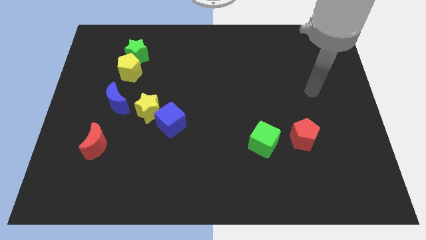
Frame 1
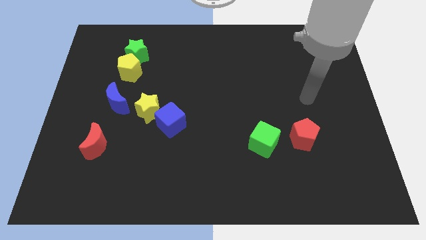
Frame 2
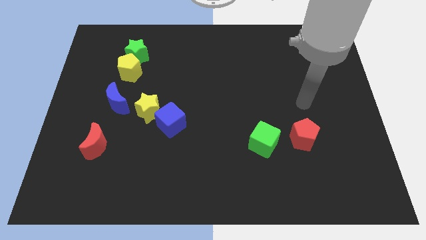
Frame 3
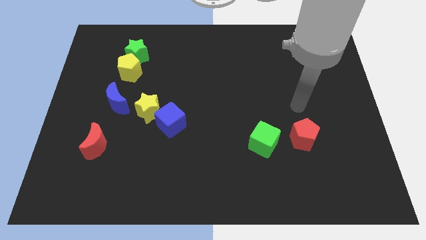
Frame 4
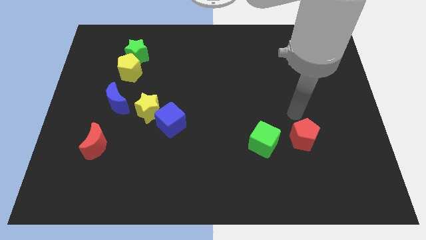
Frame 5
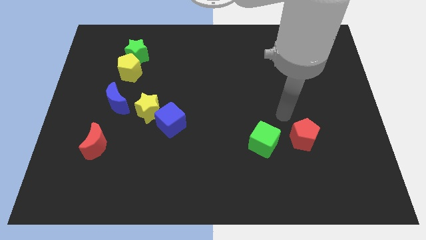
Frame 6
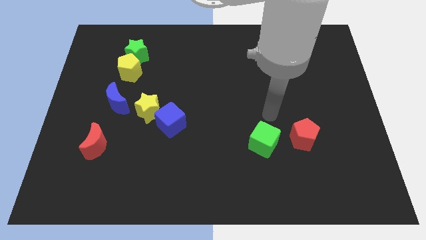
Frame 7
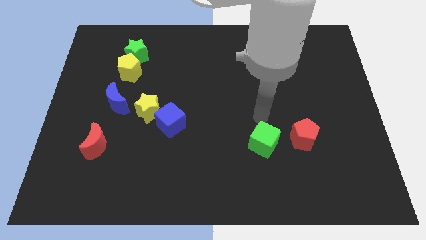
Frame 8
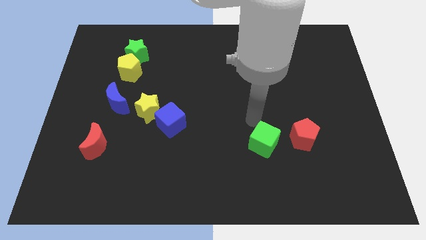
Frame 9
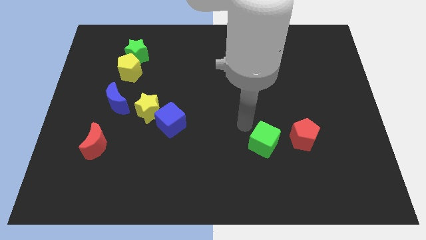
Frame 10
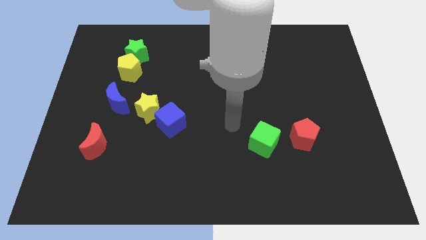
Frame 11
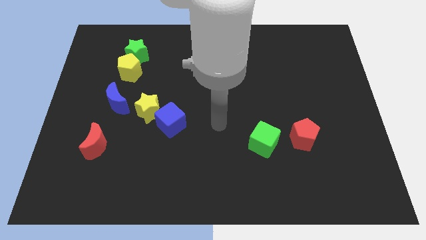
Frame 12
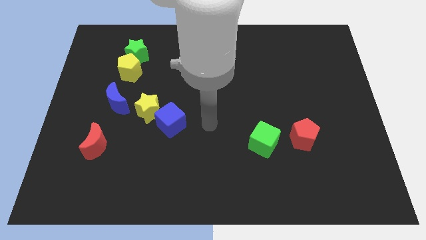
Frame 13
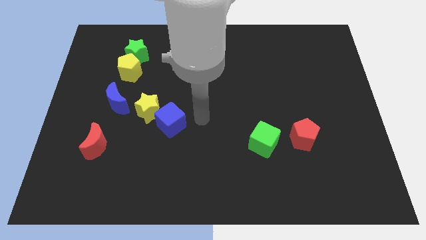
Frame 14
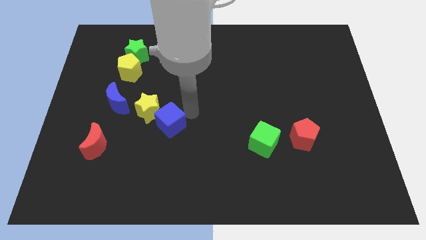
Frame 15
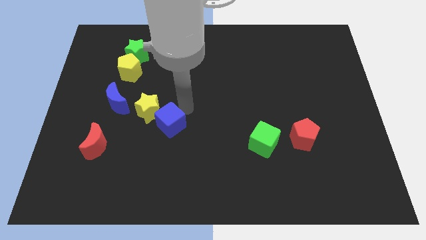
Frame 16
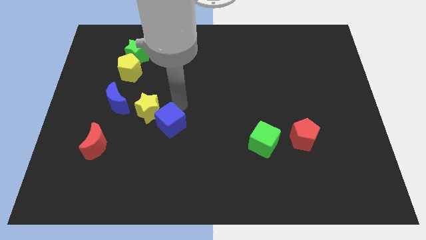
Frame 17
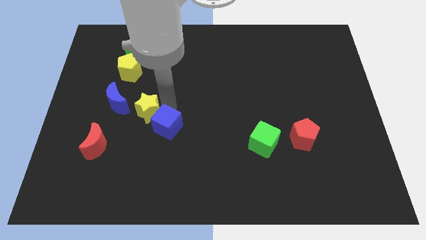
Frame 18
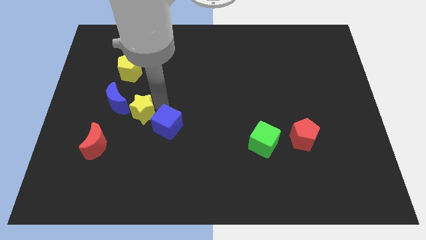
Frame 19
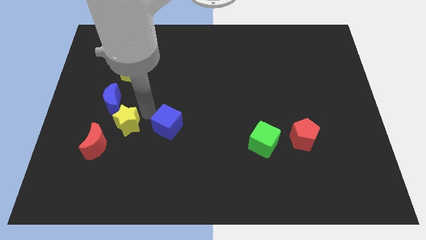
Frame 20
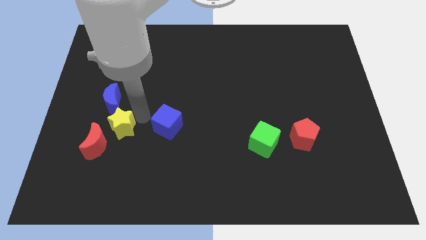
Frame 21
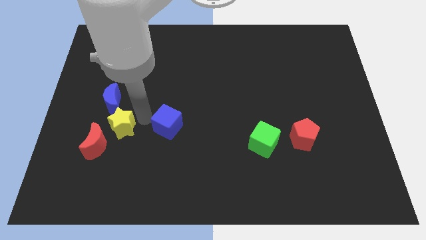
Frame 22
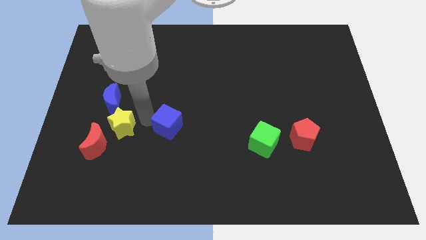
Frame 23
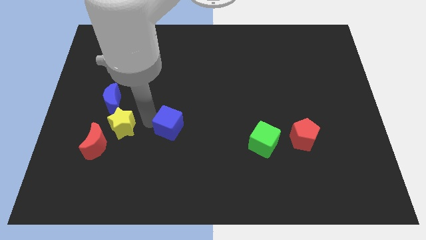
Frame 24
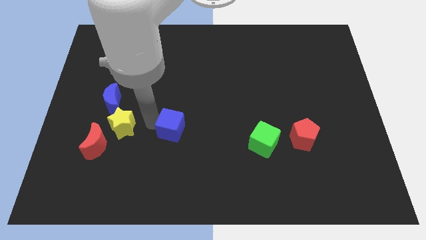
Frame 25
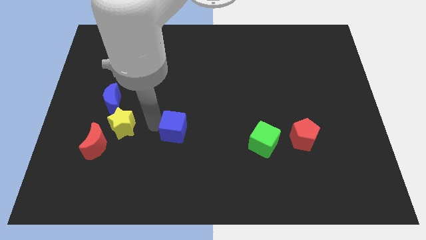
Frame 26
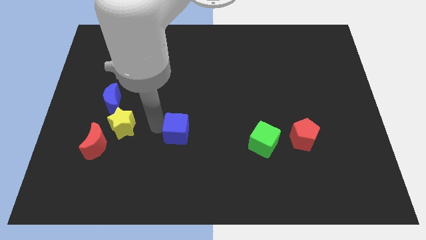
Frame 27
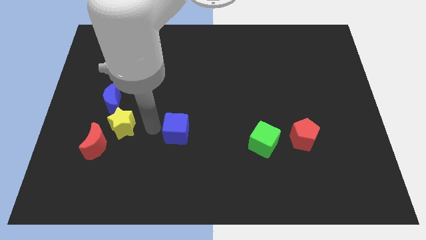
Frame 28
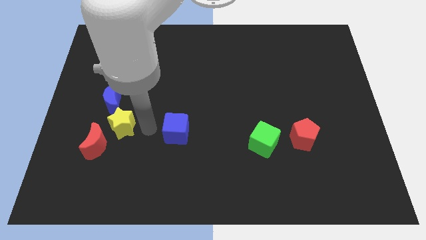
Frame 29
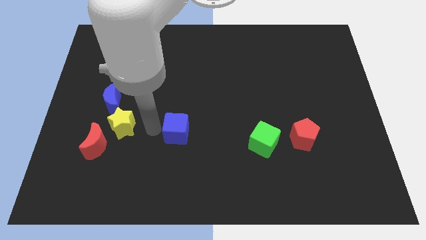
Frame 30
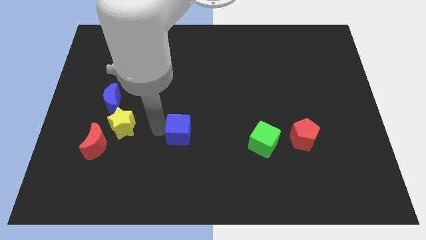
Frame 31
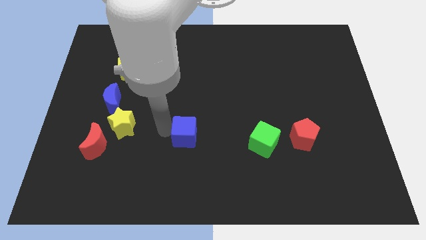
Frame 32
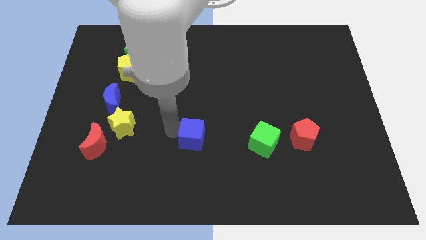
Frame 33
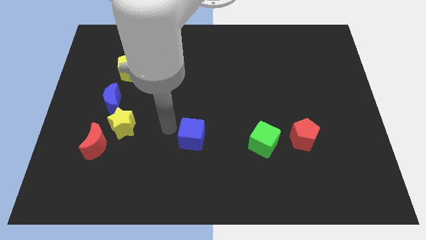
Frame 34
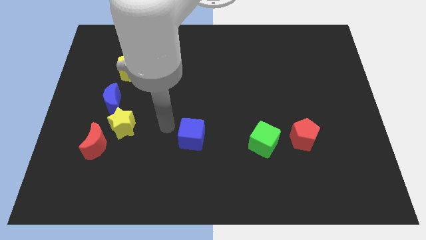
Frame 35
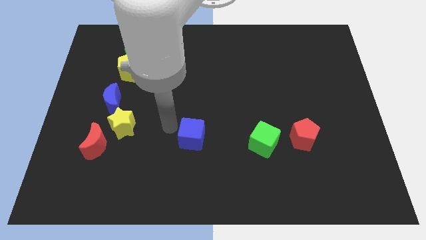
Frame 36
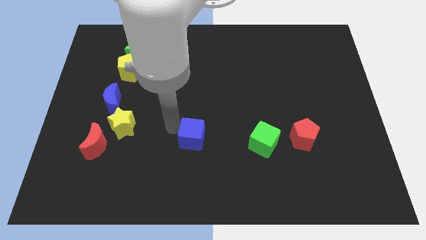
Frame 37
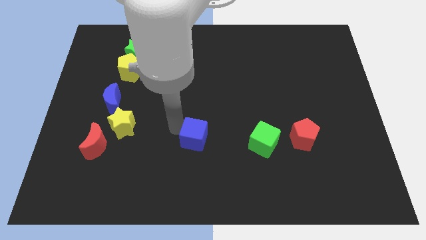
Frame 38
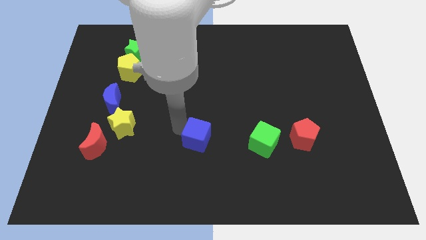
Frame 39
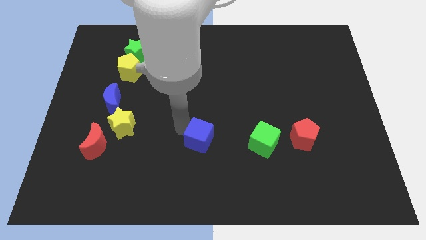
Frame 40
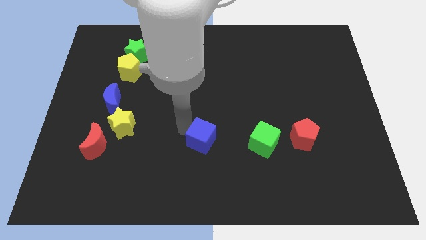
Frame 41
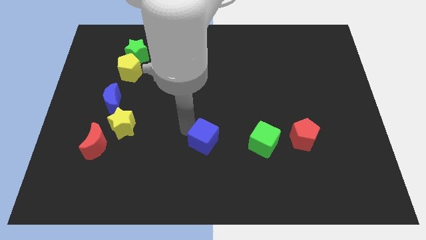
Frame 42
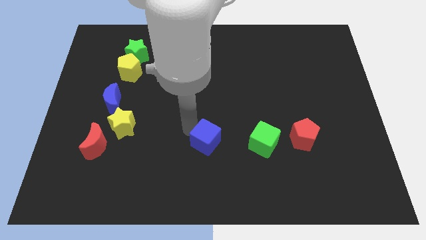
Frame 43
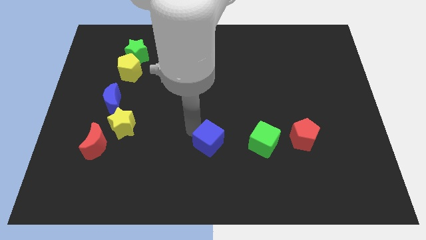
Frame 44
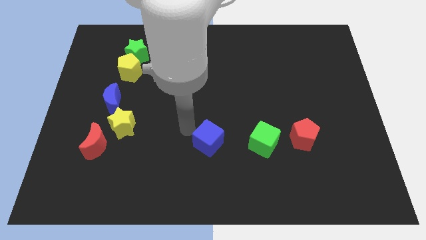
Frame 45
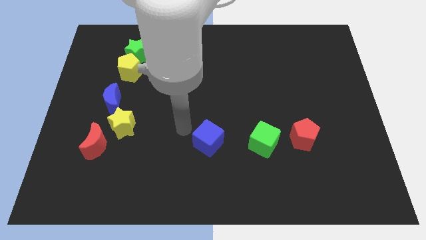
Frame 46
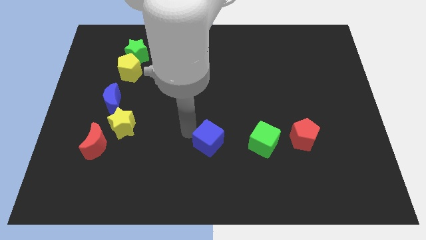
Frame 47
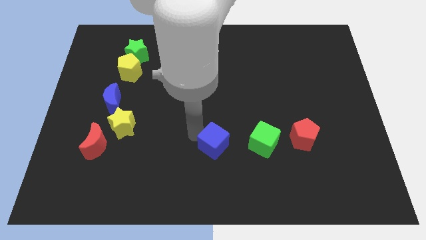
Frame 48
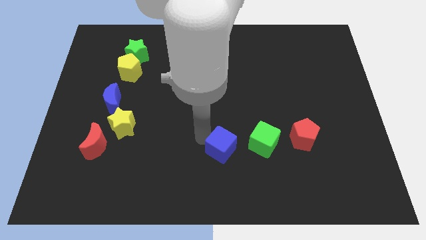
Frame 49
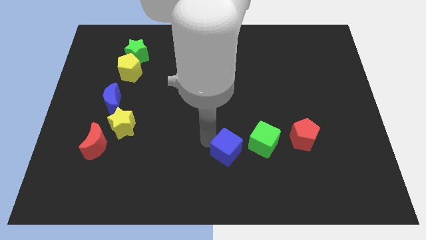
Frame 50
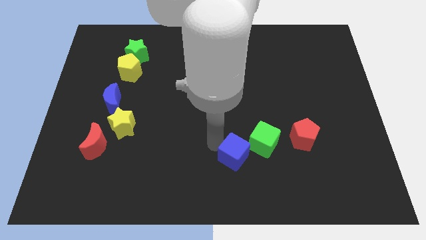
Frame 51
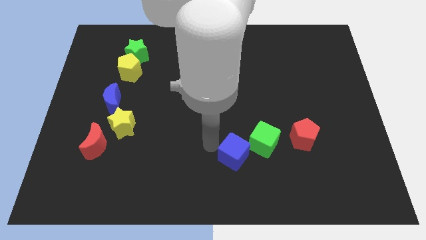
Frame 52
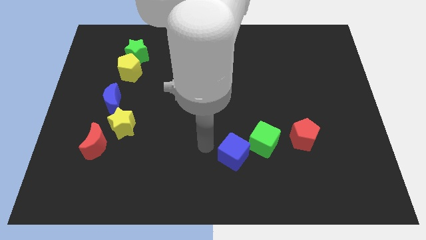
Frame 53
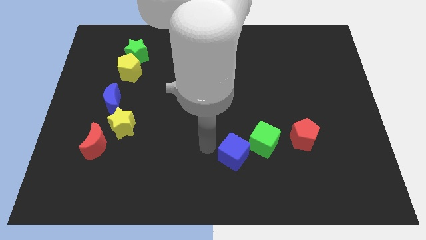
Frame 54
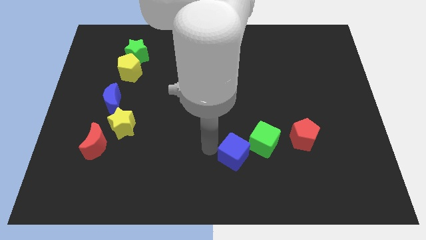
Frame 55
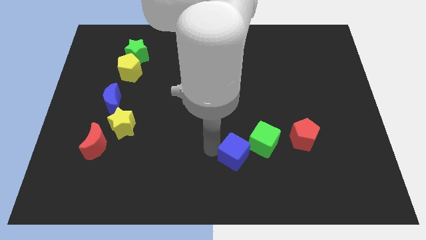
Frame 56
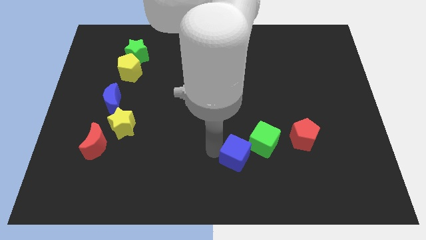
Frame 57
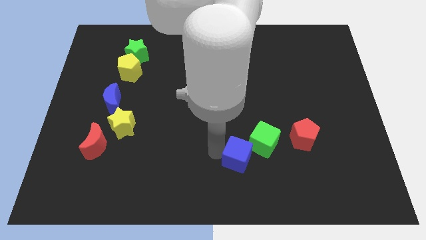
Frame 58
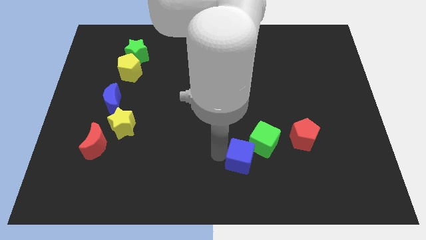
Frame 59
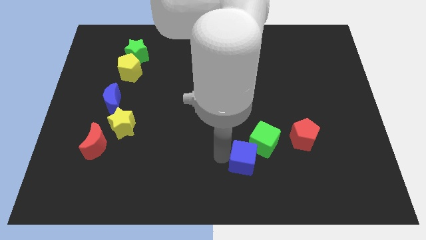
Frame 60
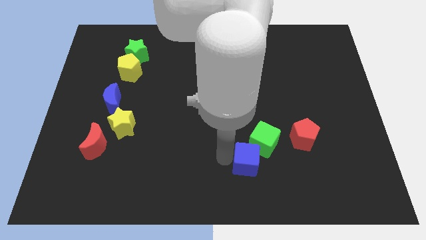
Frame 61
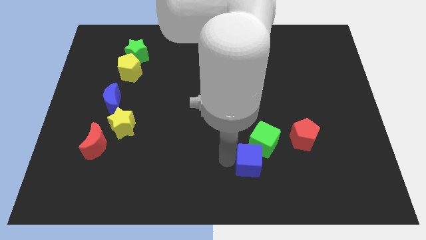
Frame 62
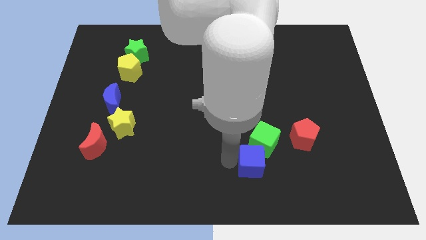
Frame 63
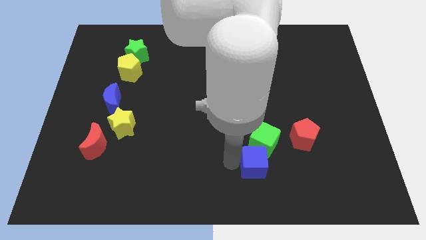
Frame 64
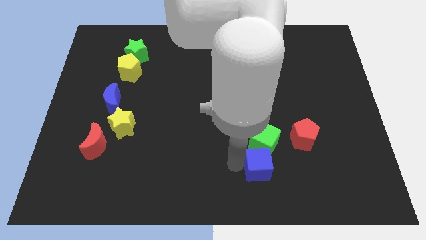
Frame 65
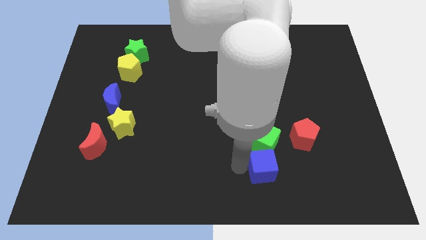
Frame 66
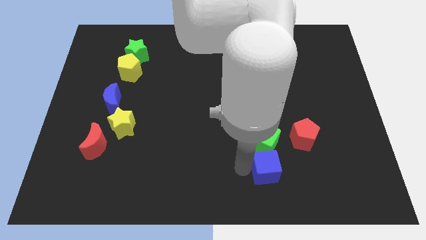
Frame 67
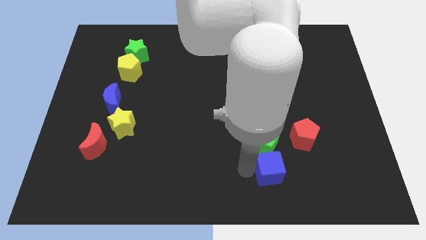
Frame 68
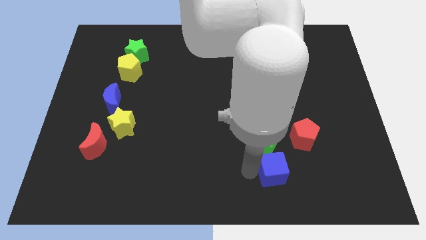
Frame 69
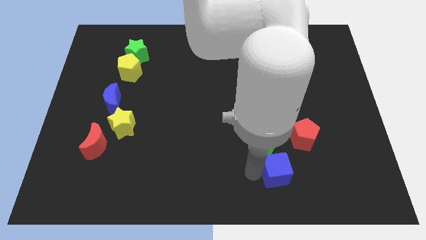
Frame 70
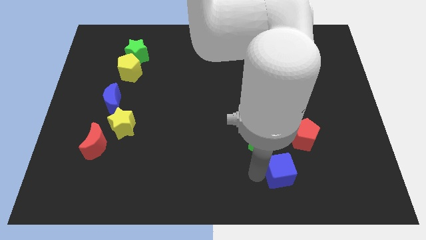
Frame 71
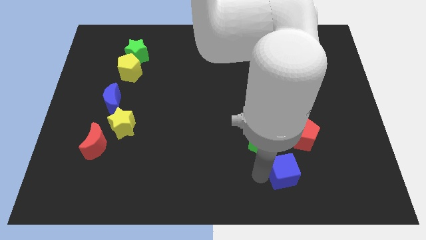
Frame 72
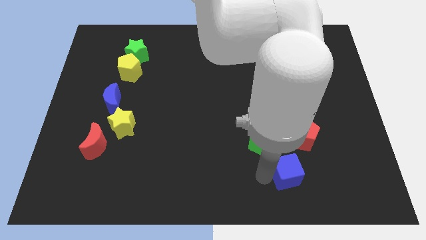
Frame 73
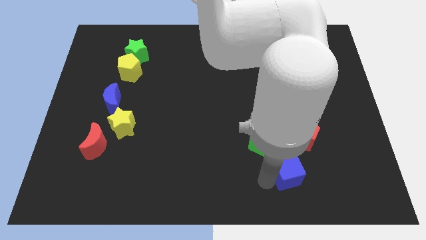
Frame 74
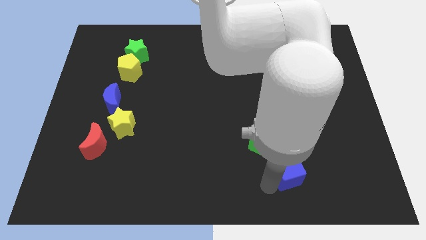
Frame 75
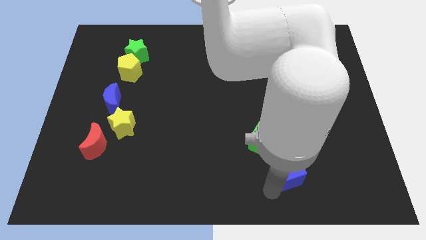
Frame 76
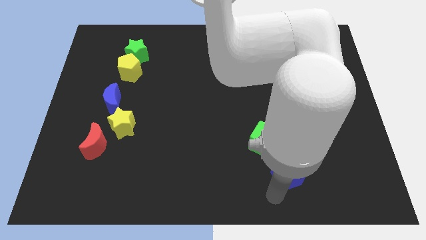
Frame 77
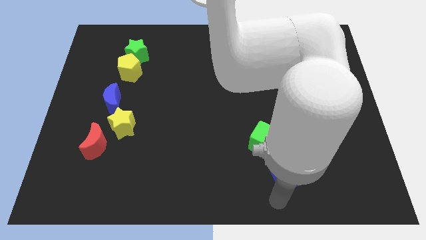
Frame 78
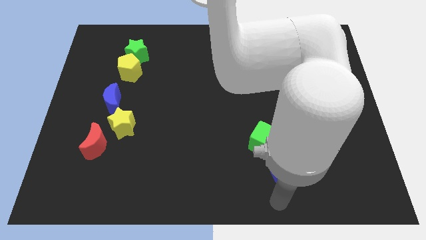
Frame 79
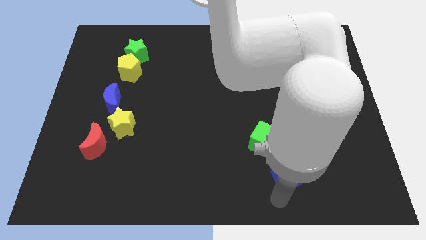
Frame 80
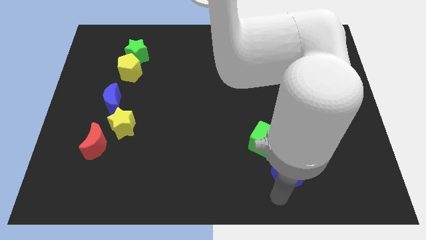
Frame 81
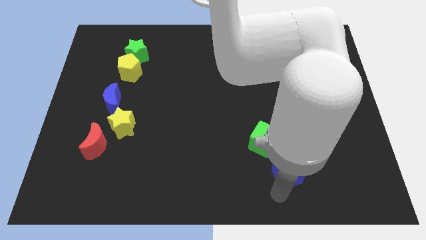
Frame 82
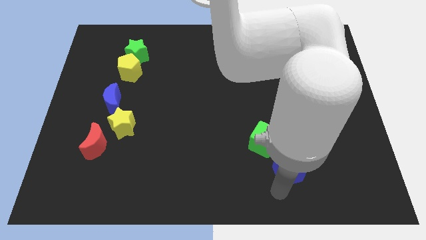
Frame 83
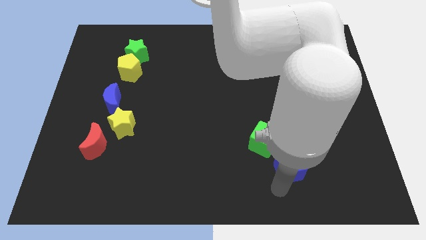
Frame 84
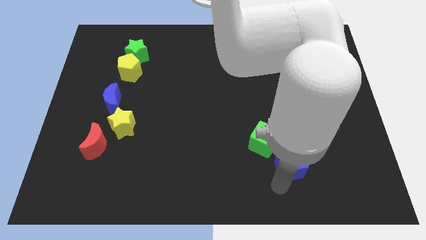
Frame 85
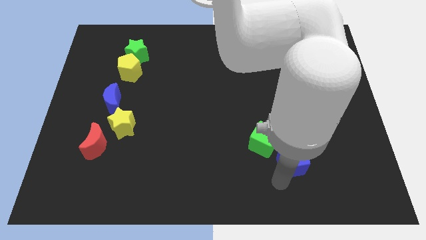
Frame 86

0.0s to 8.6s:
put the blue cube just right of the green cube
